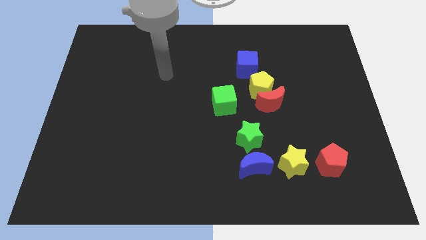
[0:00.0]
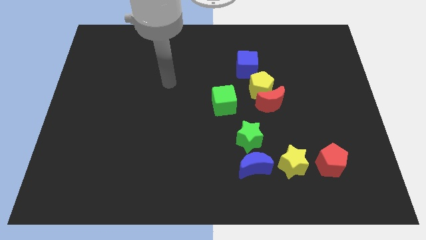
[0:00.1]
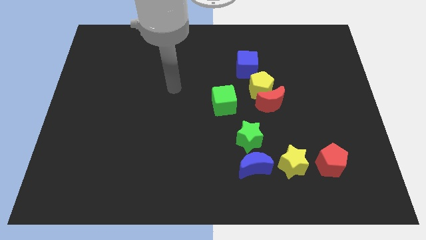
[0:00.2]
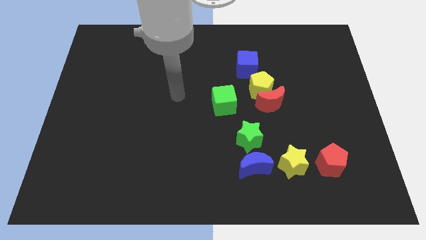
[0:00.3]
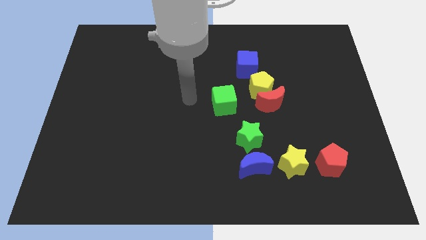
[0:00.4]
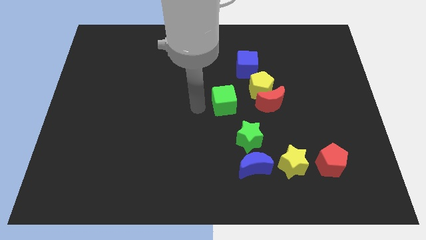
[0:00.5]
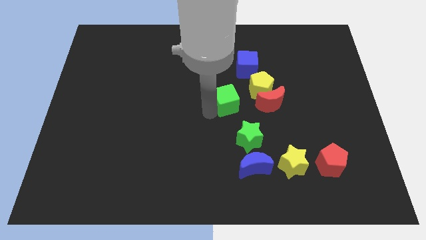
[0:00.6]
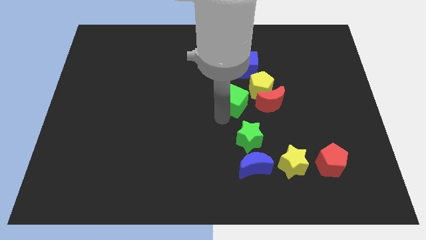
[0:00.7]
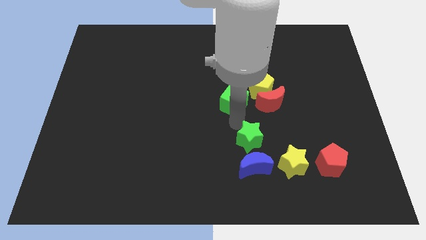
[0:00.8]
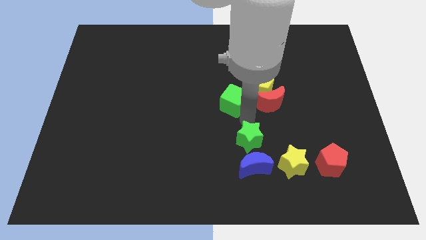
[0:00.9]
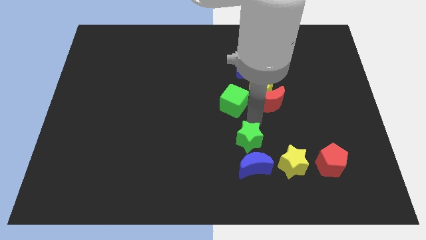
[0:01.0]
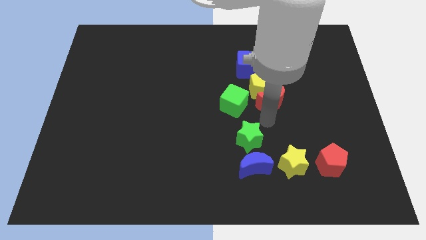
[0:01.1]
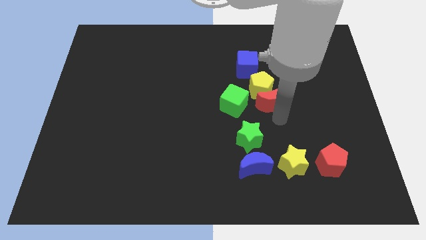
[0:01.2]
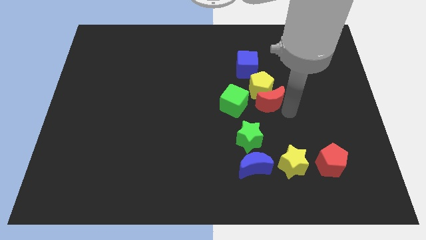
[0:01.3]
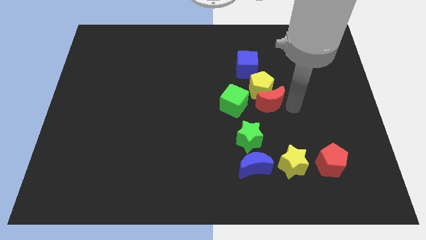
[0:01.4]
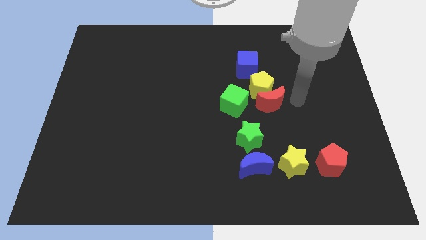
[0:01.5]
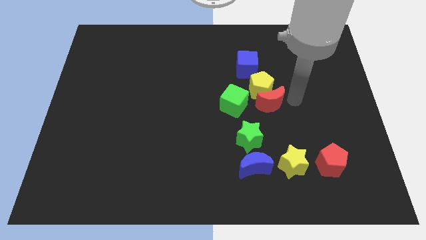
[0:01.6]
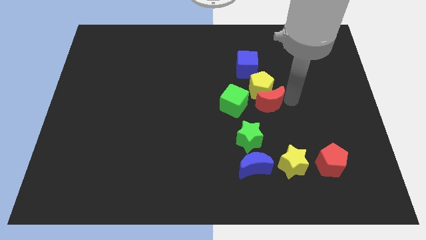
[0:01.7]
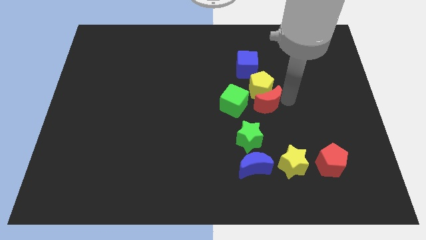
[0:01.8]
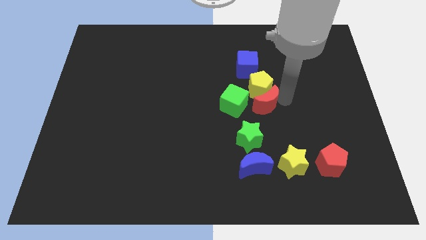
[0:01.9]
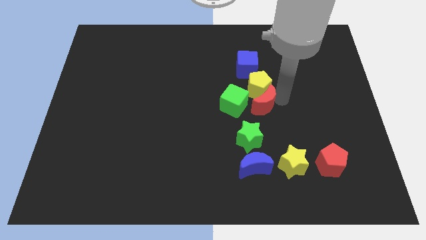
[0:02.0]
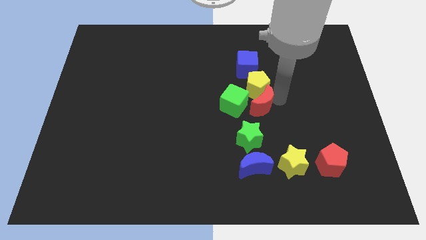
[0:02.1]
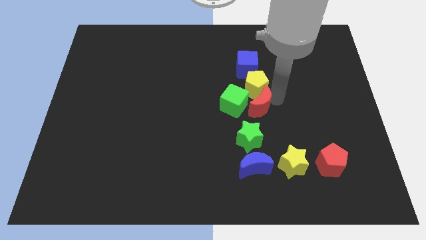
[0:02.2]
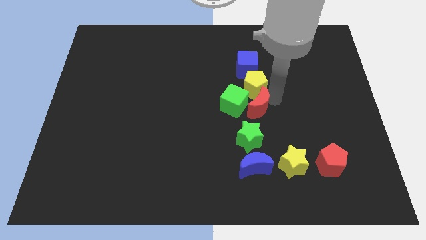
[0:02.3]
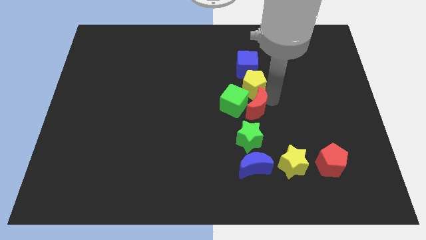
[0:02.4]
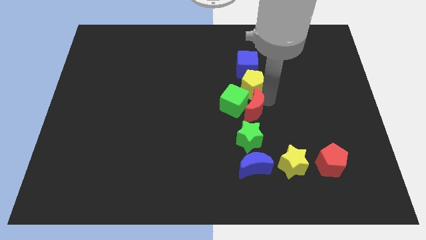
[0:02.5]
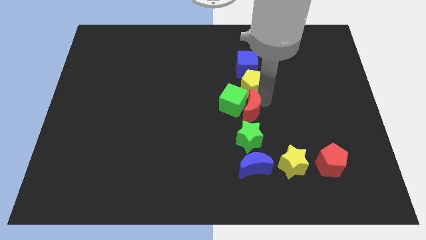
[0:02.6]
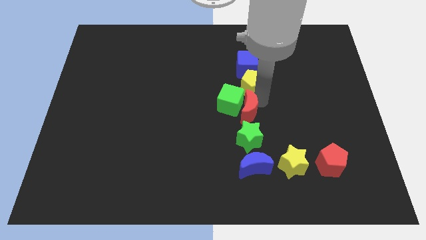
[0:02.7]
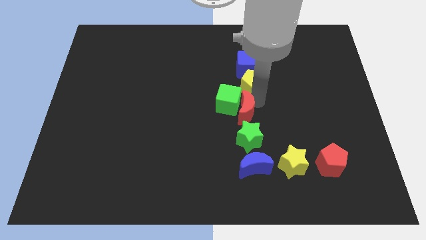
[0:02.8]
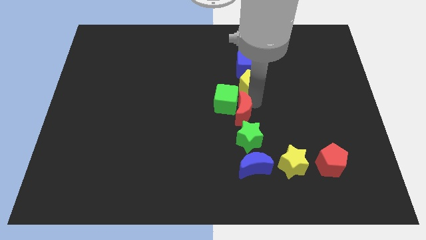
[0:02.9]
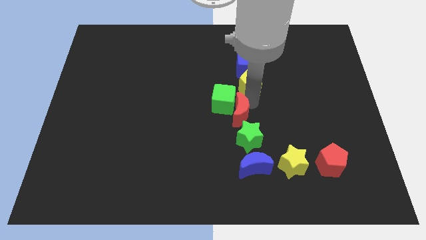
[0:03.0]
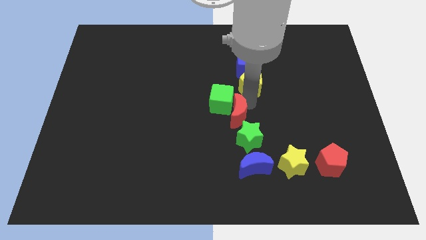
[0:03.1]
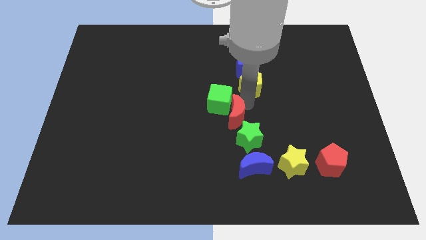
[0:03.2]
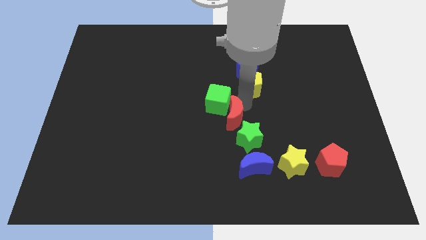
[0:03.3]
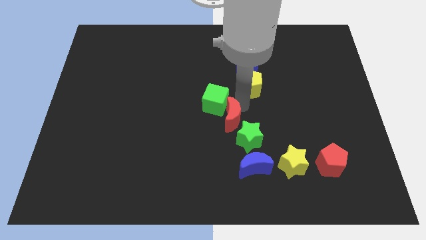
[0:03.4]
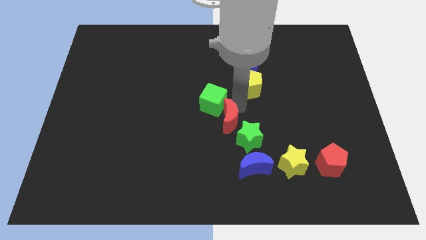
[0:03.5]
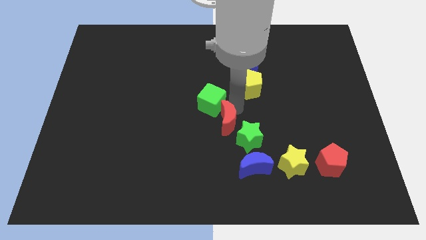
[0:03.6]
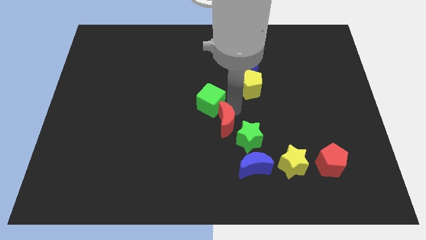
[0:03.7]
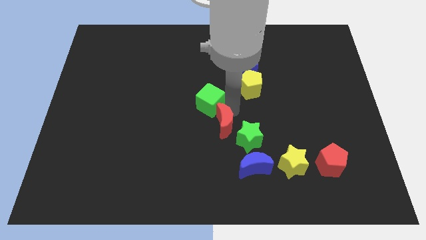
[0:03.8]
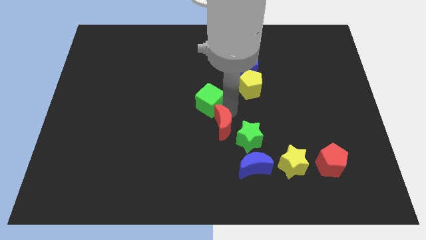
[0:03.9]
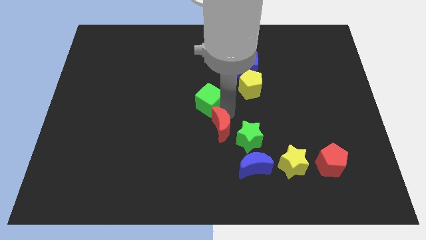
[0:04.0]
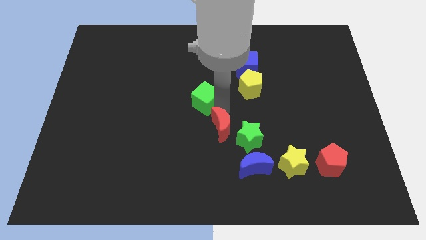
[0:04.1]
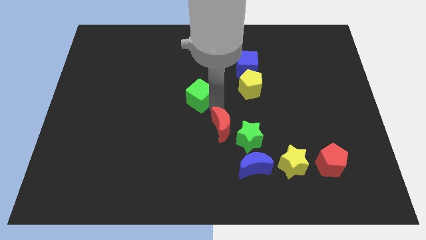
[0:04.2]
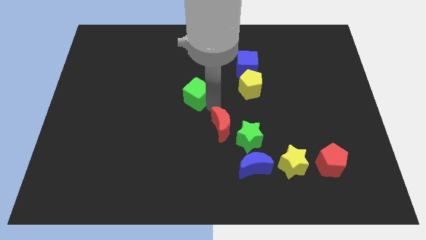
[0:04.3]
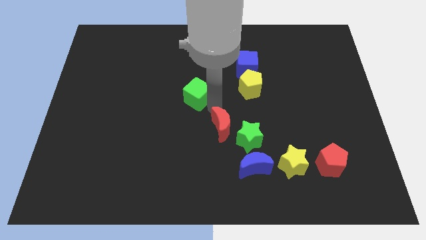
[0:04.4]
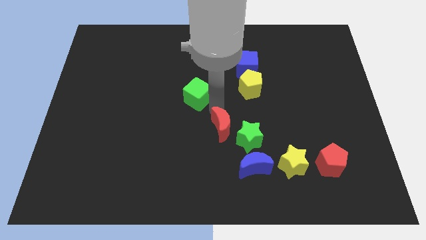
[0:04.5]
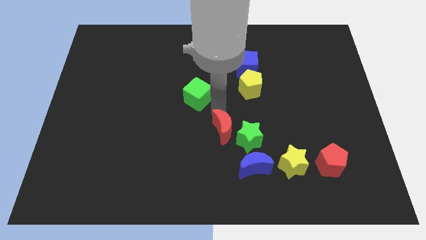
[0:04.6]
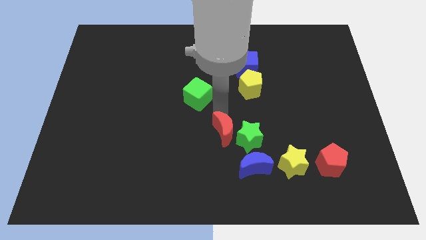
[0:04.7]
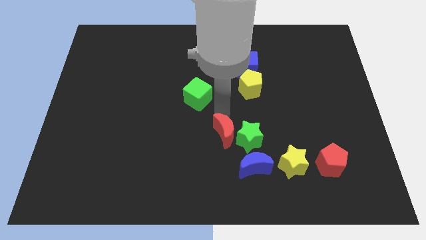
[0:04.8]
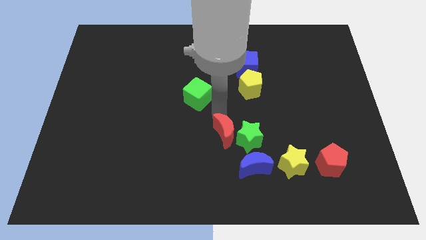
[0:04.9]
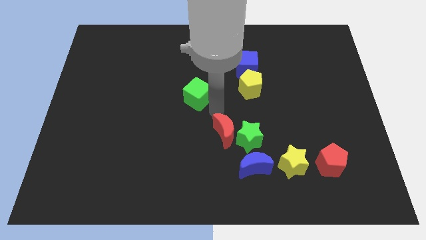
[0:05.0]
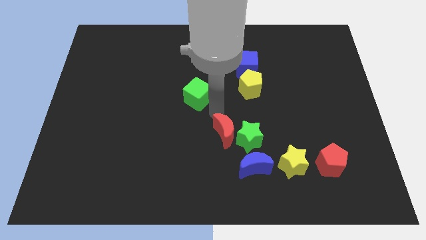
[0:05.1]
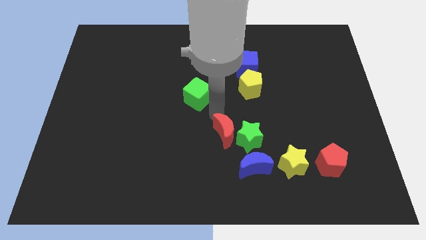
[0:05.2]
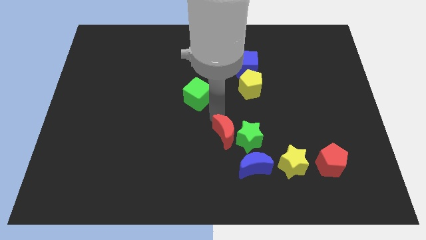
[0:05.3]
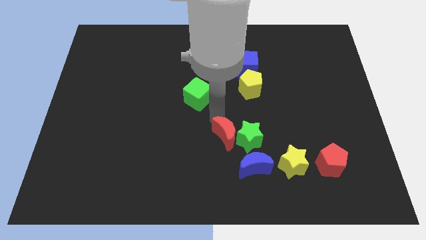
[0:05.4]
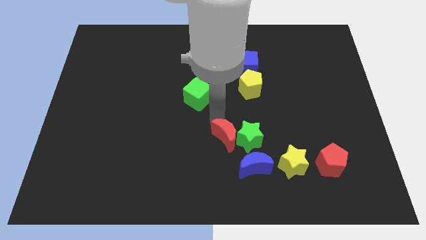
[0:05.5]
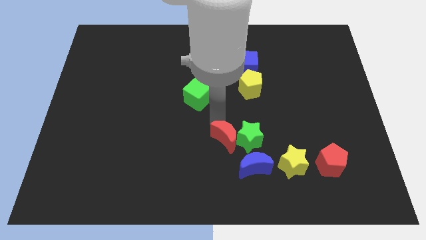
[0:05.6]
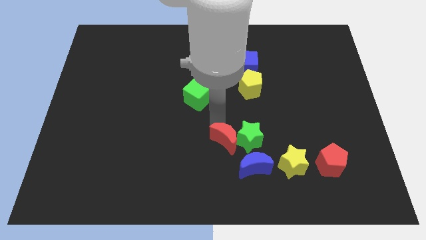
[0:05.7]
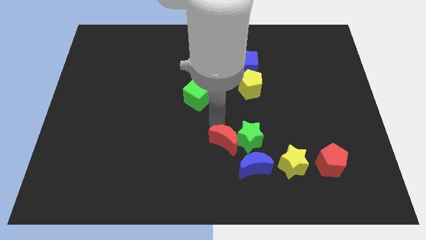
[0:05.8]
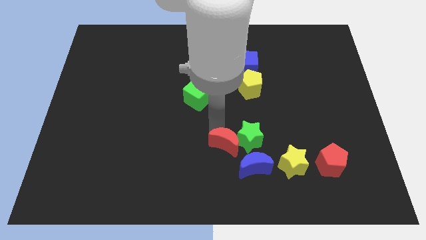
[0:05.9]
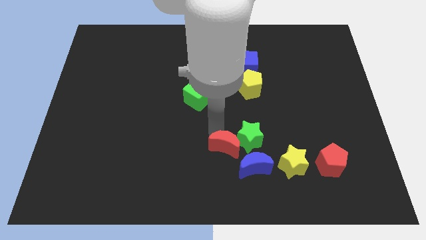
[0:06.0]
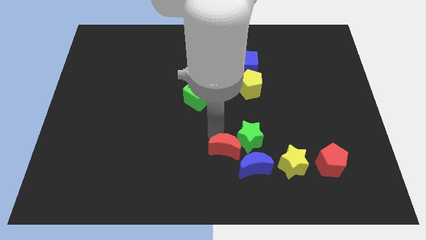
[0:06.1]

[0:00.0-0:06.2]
slide the red moon to the left side of the yellow star
